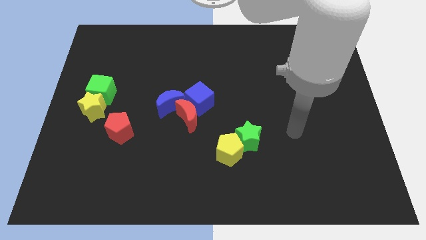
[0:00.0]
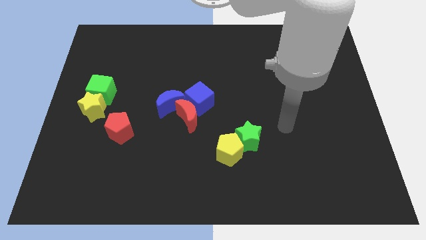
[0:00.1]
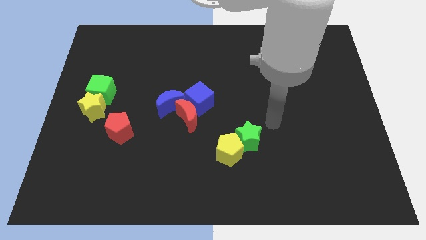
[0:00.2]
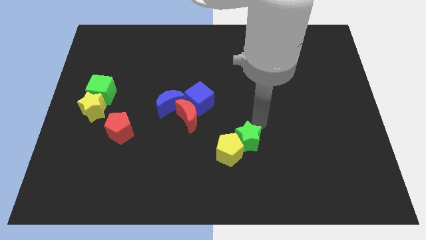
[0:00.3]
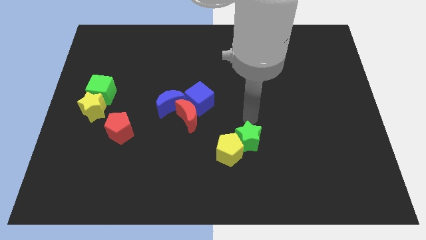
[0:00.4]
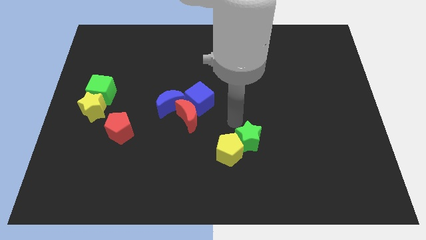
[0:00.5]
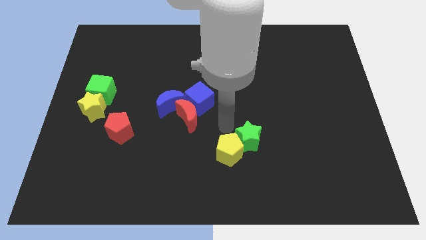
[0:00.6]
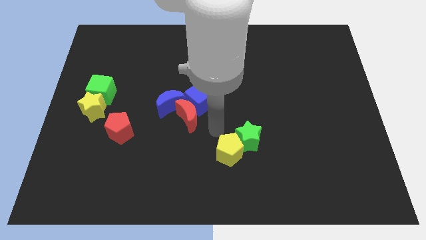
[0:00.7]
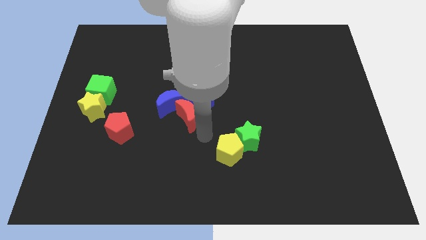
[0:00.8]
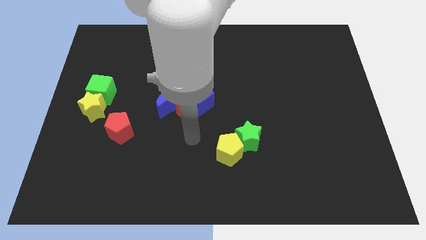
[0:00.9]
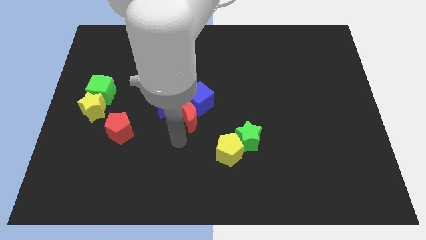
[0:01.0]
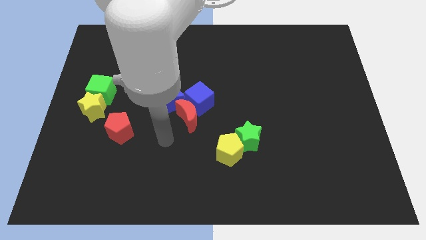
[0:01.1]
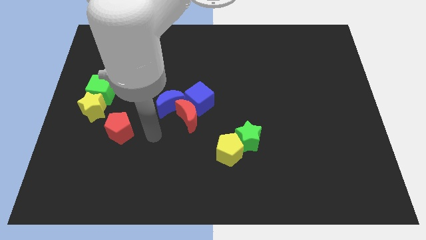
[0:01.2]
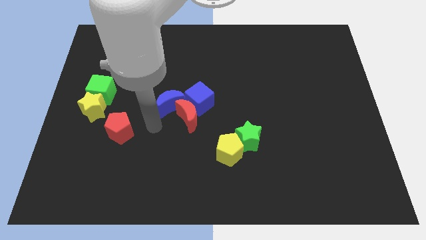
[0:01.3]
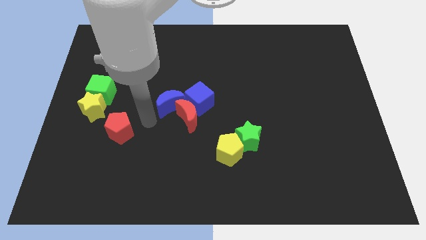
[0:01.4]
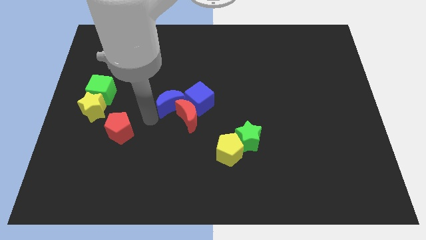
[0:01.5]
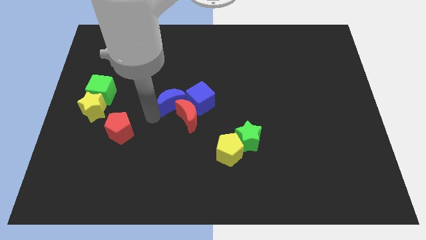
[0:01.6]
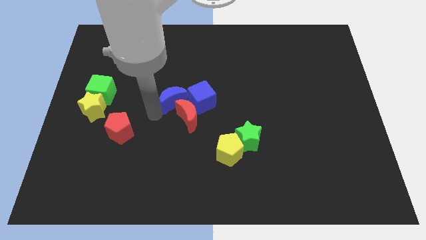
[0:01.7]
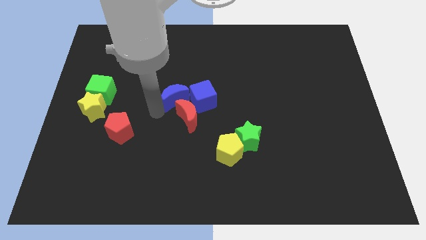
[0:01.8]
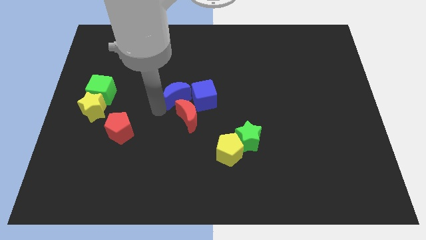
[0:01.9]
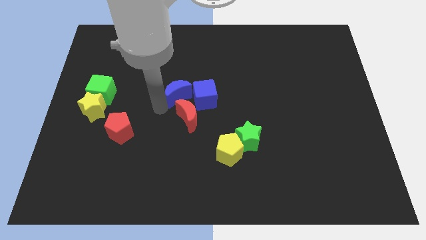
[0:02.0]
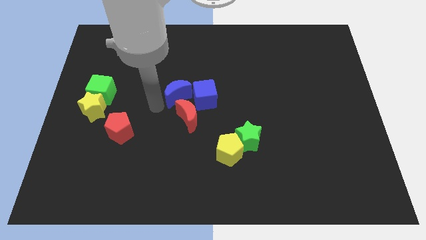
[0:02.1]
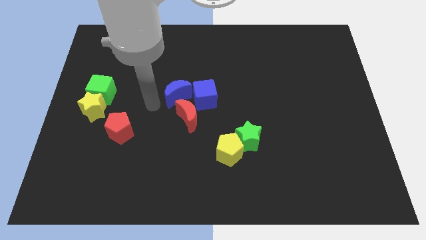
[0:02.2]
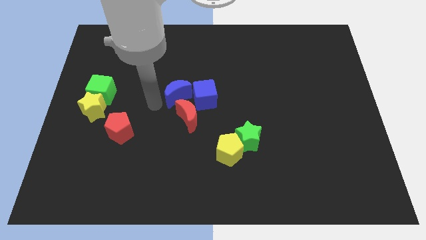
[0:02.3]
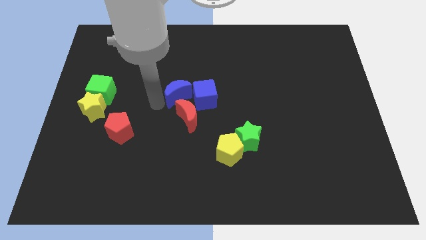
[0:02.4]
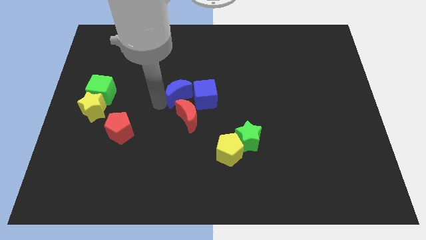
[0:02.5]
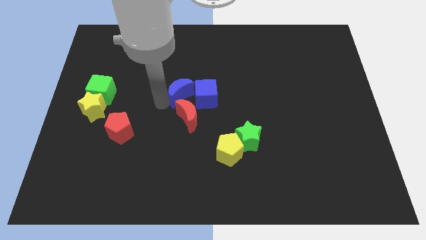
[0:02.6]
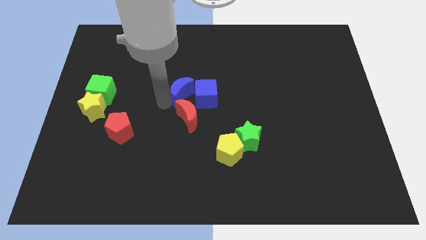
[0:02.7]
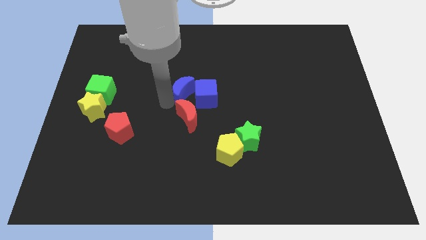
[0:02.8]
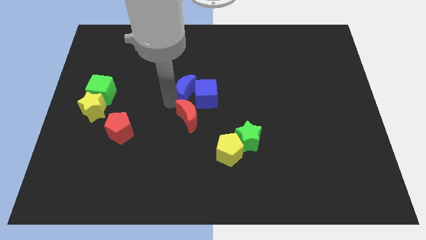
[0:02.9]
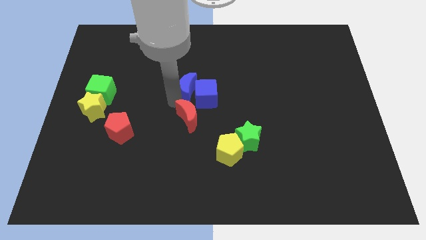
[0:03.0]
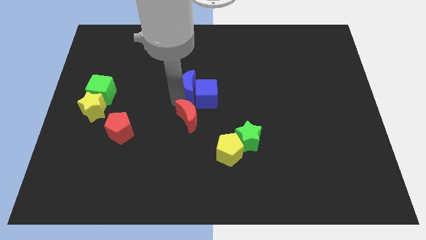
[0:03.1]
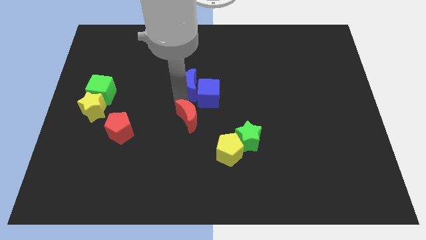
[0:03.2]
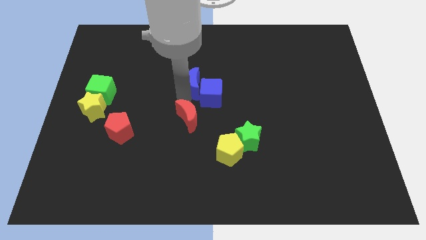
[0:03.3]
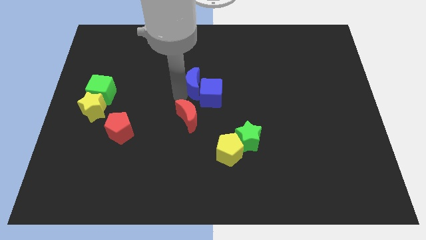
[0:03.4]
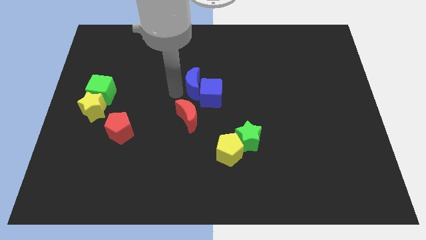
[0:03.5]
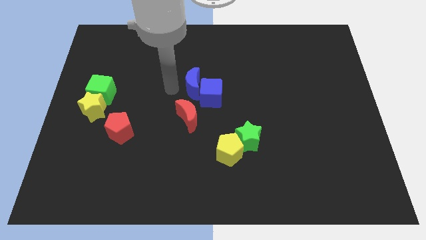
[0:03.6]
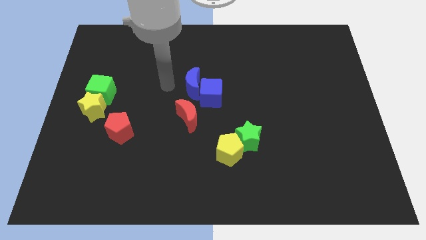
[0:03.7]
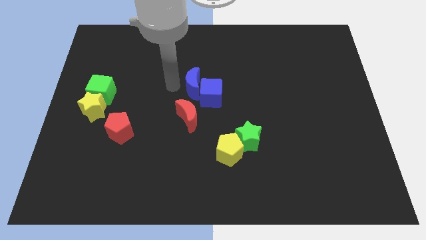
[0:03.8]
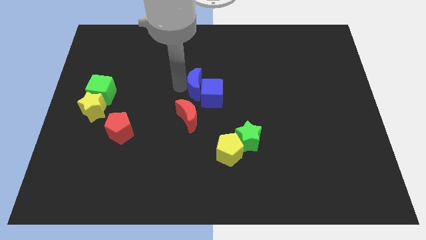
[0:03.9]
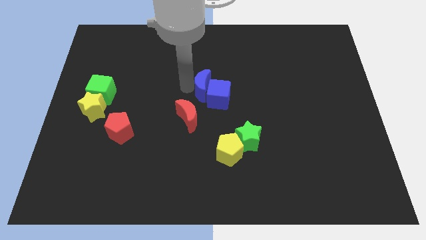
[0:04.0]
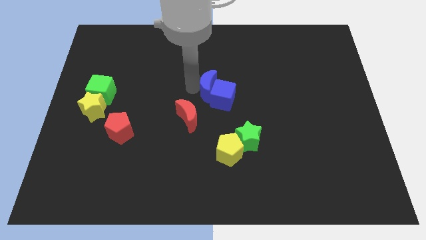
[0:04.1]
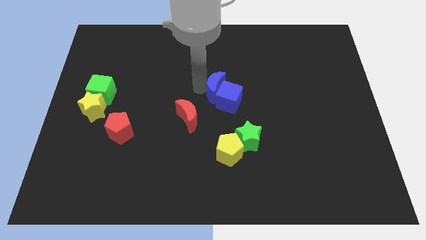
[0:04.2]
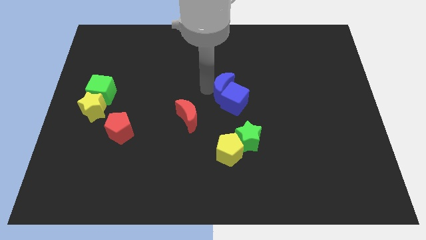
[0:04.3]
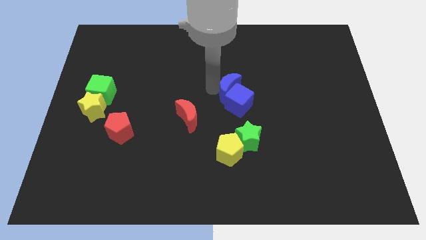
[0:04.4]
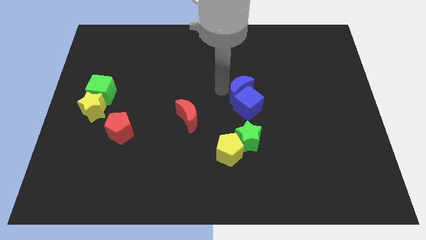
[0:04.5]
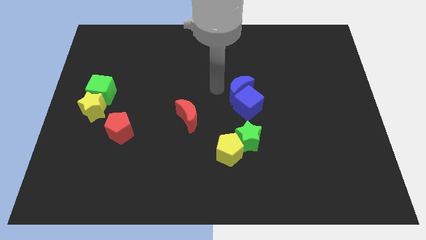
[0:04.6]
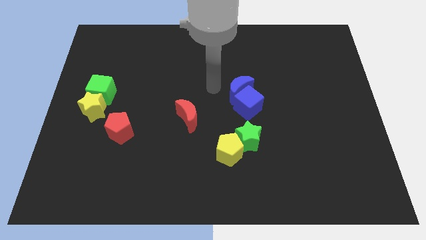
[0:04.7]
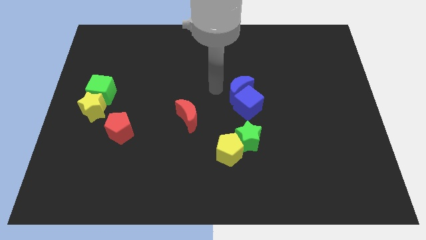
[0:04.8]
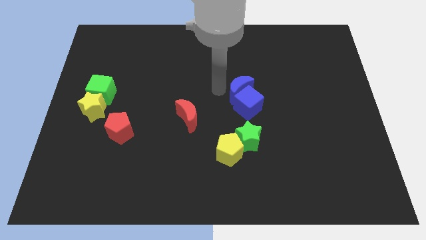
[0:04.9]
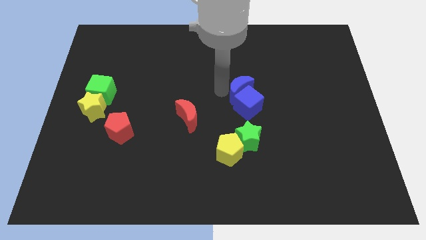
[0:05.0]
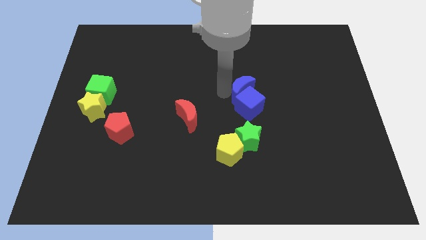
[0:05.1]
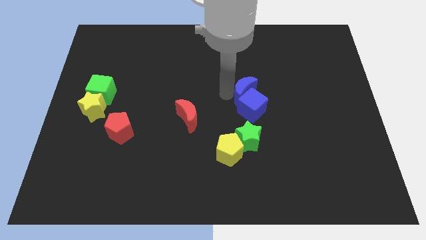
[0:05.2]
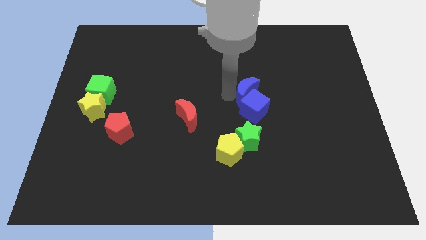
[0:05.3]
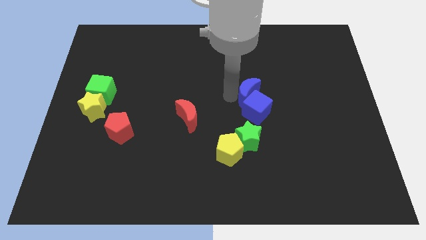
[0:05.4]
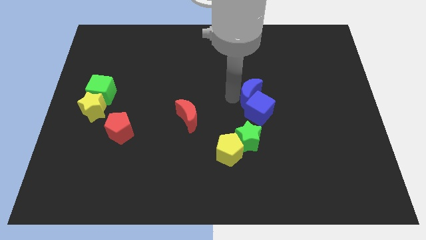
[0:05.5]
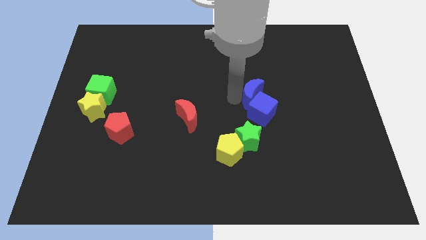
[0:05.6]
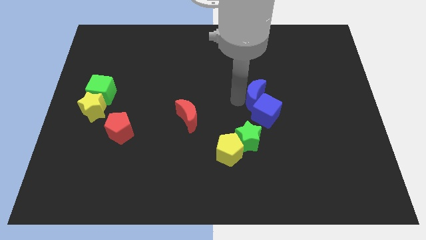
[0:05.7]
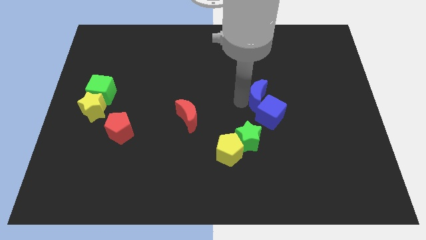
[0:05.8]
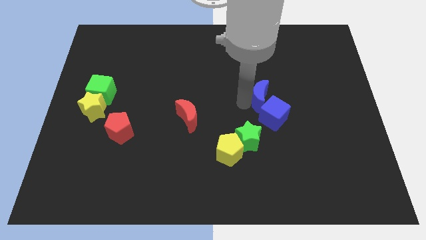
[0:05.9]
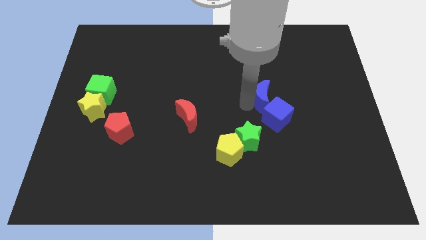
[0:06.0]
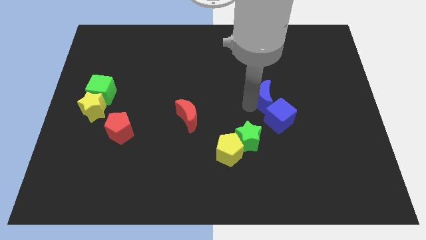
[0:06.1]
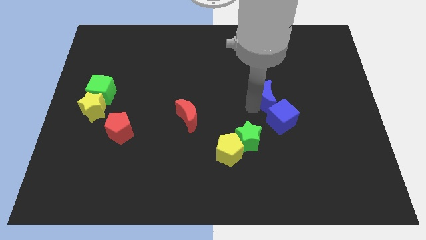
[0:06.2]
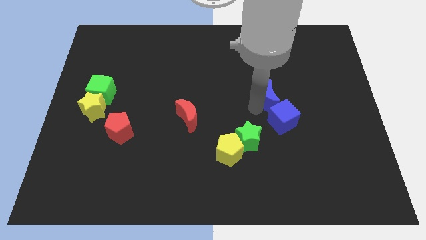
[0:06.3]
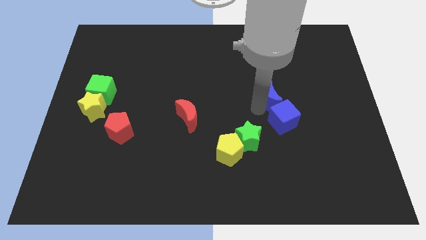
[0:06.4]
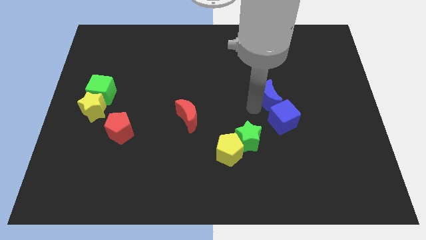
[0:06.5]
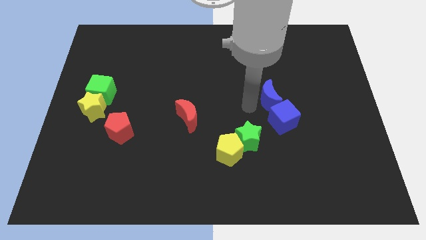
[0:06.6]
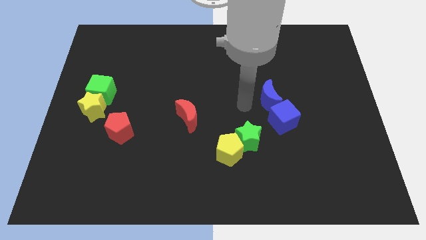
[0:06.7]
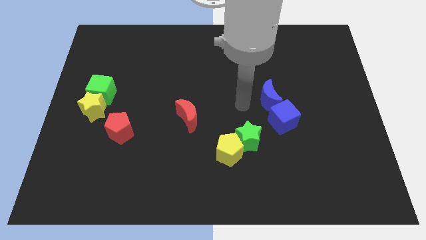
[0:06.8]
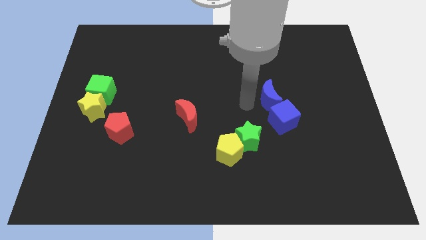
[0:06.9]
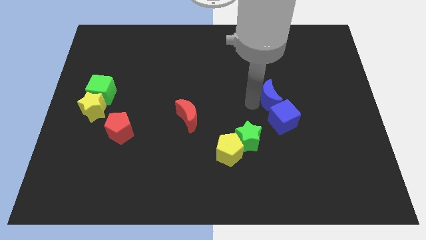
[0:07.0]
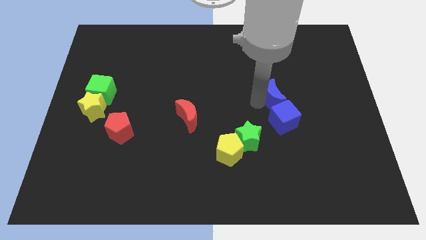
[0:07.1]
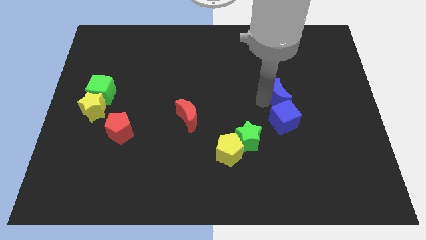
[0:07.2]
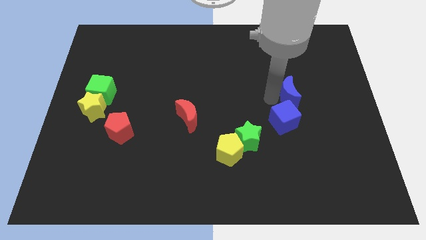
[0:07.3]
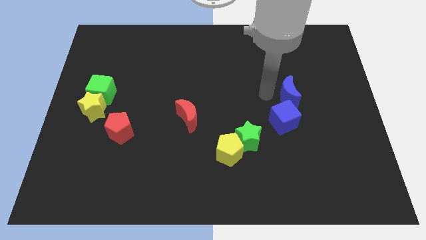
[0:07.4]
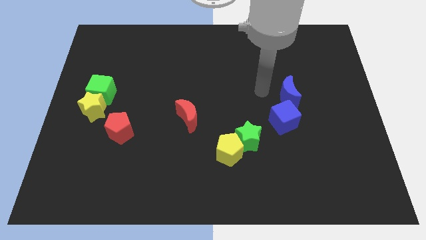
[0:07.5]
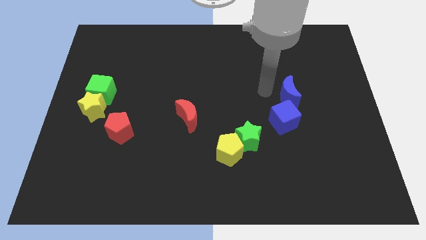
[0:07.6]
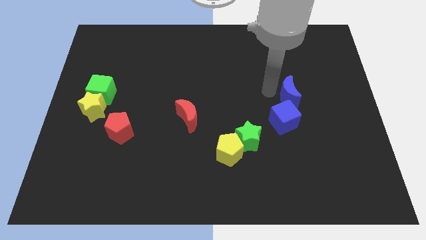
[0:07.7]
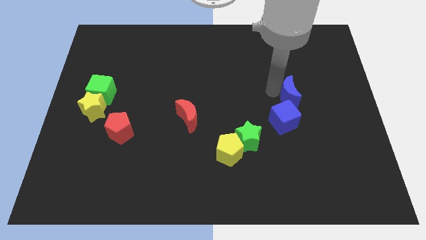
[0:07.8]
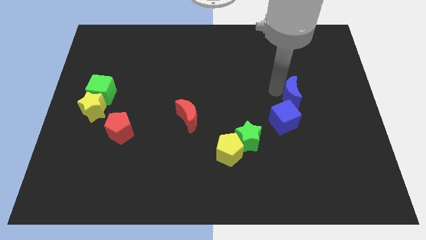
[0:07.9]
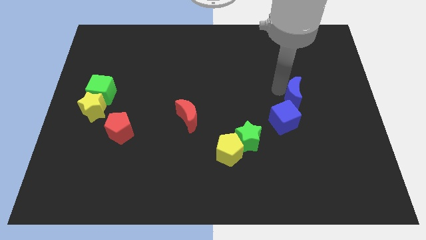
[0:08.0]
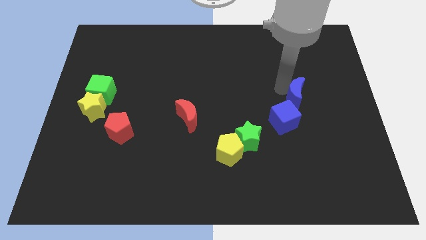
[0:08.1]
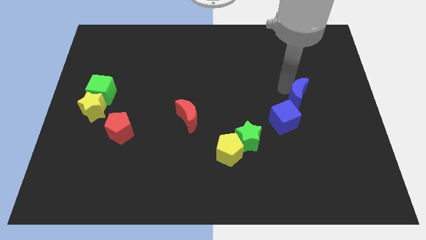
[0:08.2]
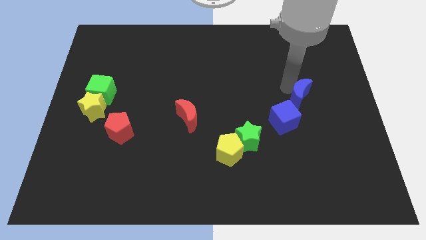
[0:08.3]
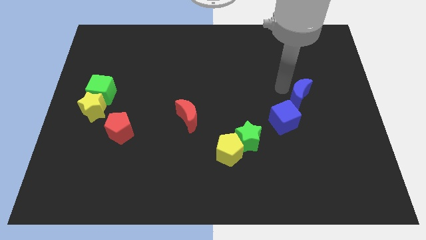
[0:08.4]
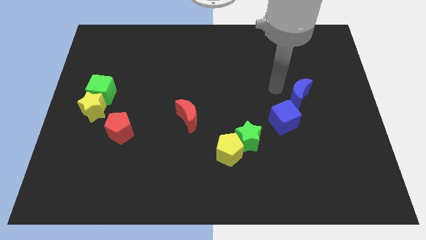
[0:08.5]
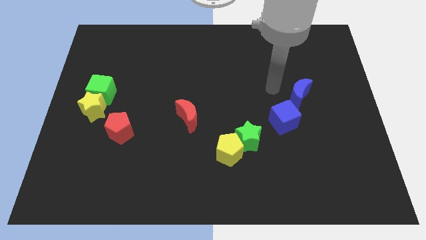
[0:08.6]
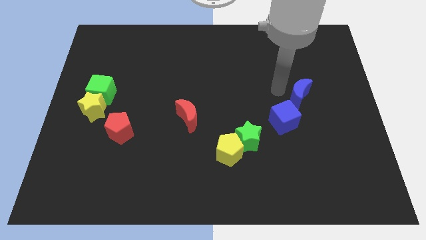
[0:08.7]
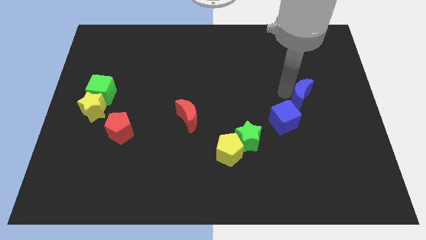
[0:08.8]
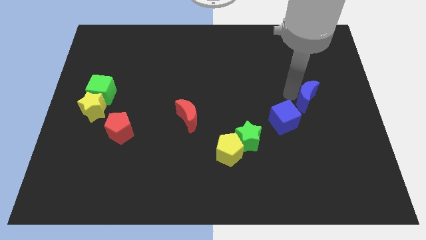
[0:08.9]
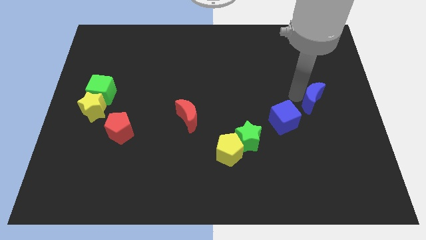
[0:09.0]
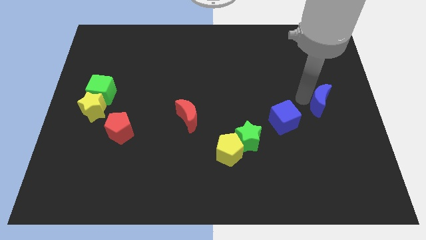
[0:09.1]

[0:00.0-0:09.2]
move the blue moon to the right side
